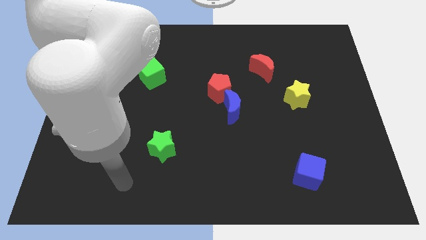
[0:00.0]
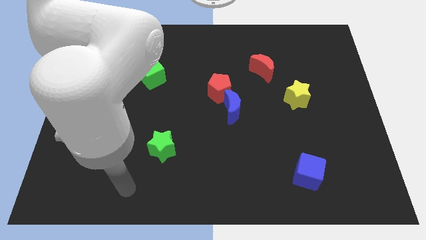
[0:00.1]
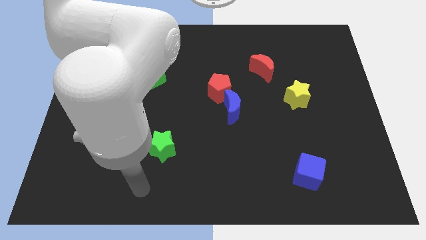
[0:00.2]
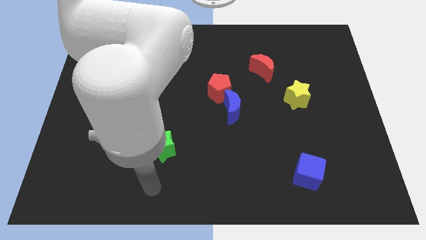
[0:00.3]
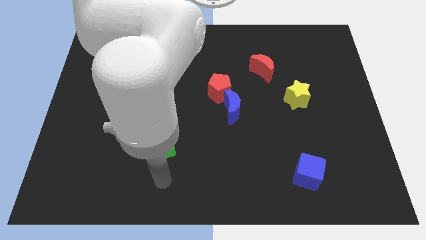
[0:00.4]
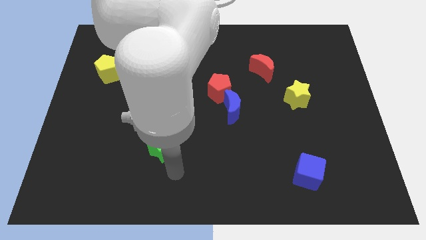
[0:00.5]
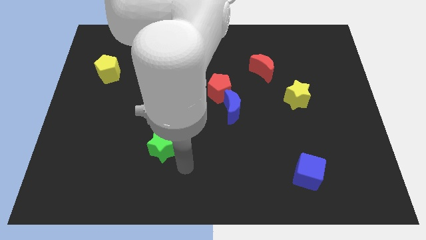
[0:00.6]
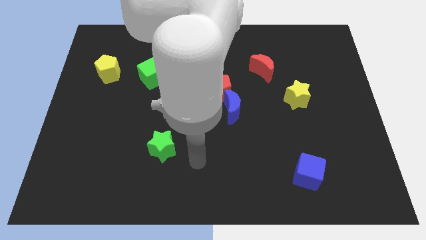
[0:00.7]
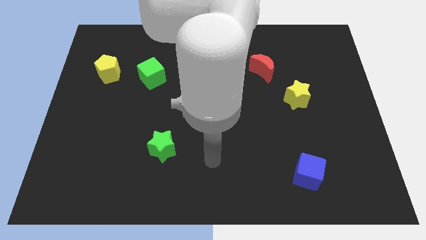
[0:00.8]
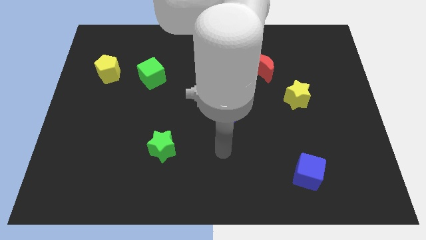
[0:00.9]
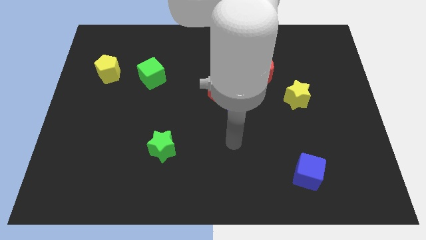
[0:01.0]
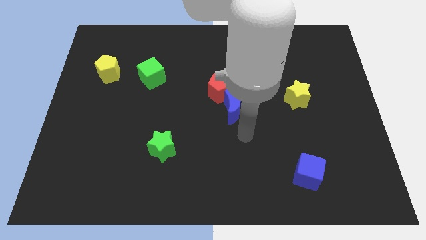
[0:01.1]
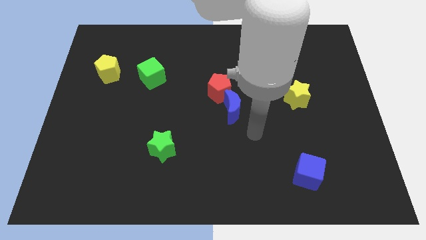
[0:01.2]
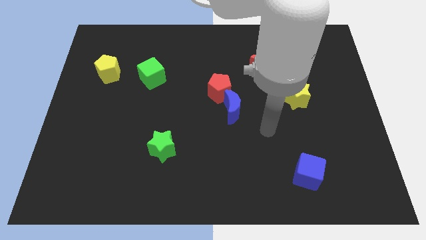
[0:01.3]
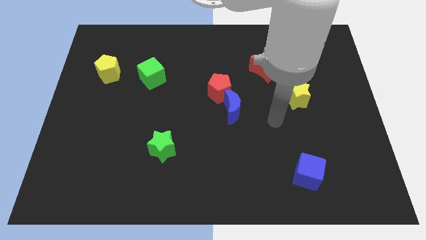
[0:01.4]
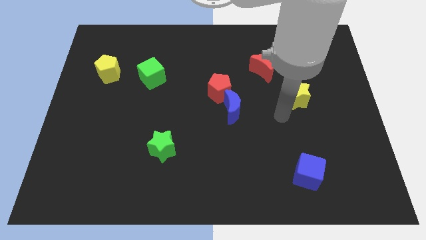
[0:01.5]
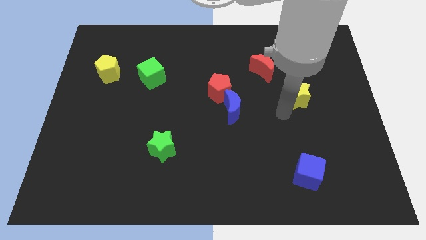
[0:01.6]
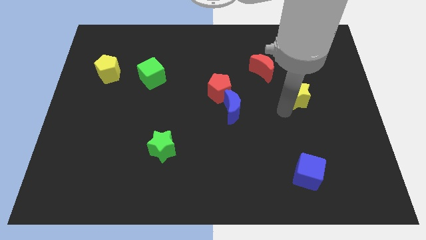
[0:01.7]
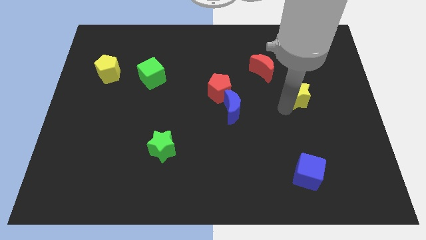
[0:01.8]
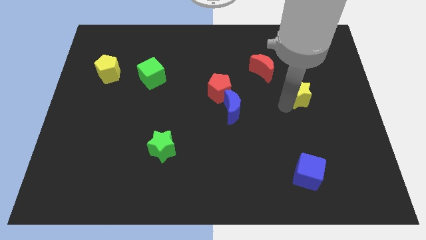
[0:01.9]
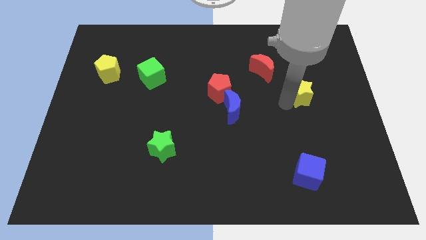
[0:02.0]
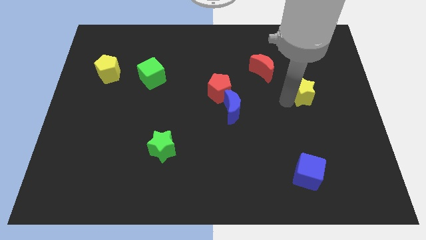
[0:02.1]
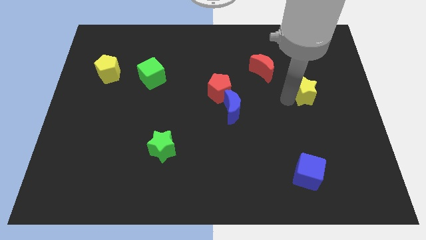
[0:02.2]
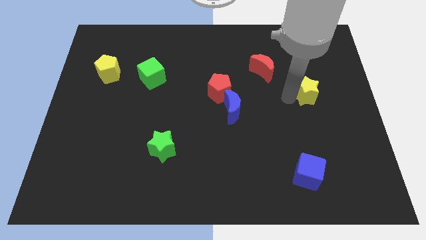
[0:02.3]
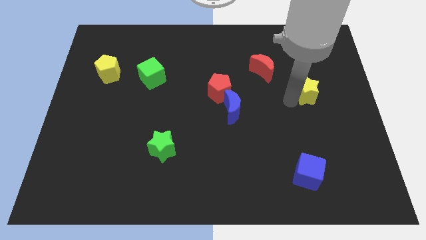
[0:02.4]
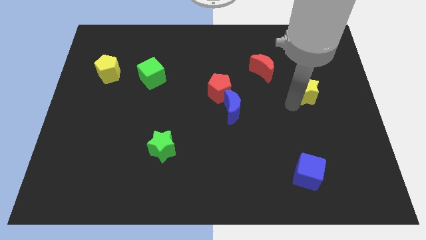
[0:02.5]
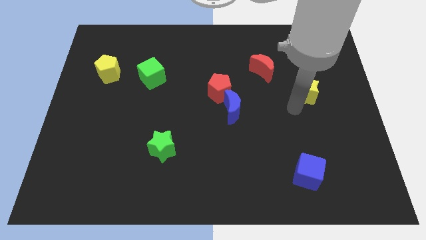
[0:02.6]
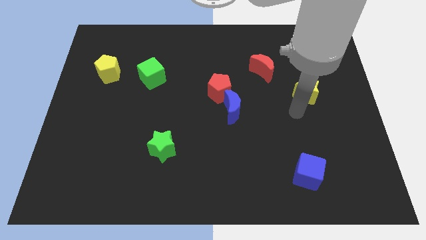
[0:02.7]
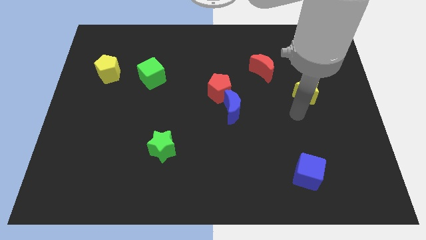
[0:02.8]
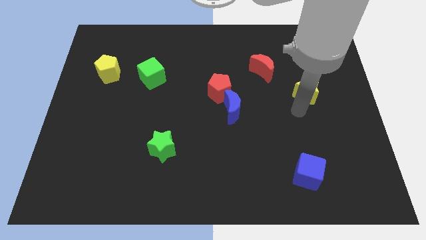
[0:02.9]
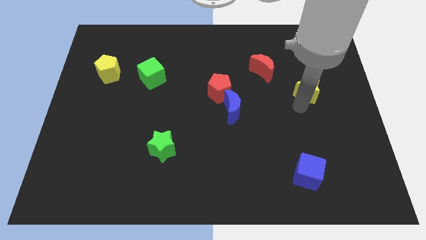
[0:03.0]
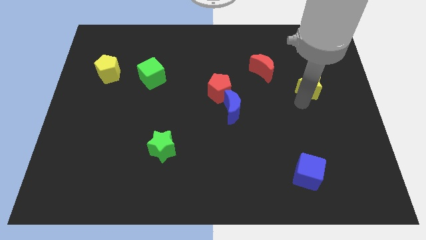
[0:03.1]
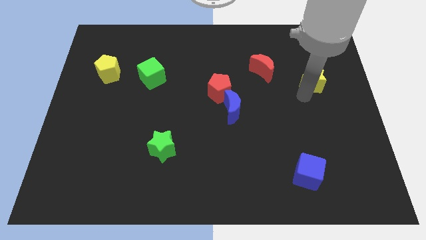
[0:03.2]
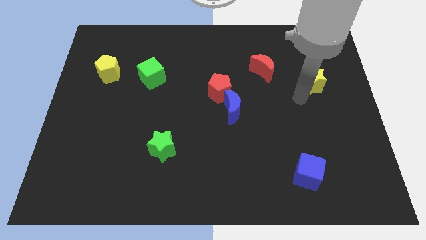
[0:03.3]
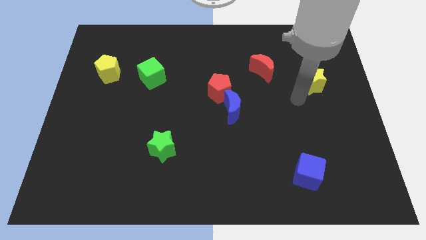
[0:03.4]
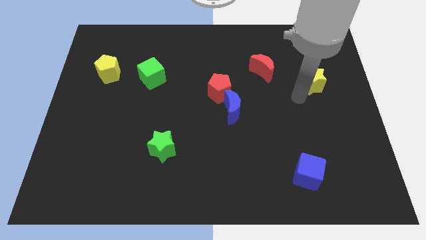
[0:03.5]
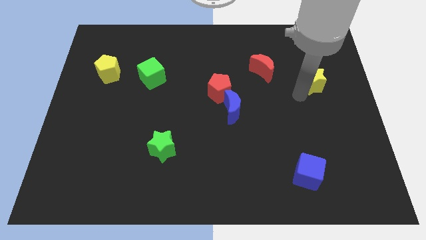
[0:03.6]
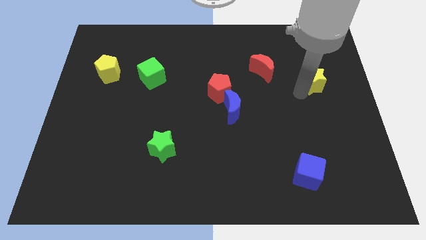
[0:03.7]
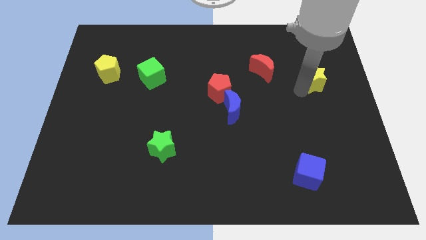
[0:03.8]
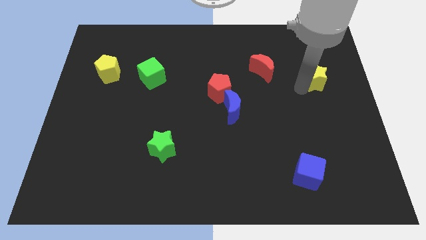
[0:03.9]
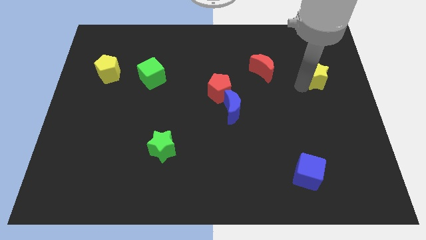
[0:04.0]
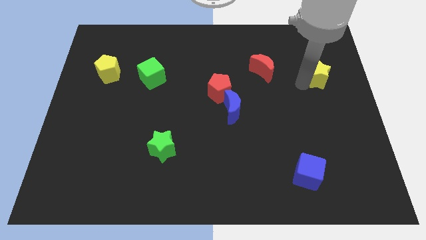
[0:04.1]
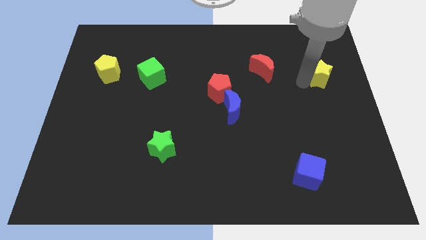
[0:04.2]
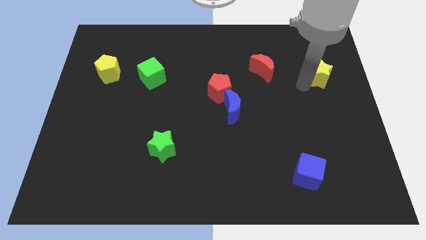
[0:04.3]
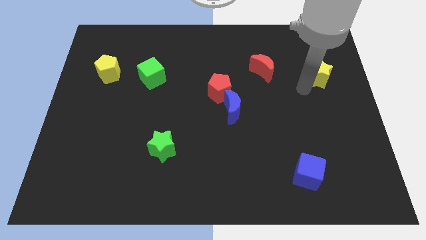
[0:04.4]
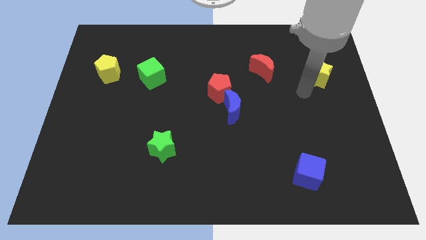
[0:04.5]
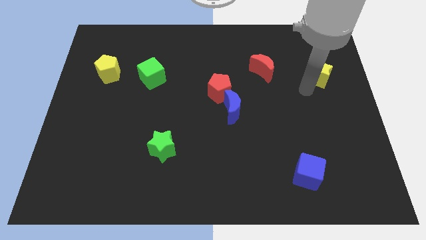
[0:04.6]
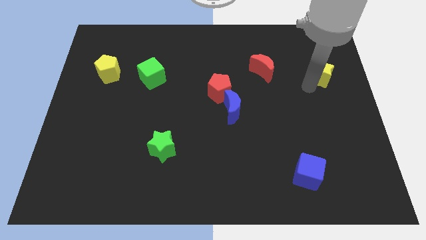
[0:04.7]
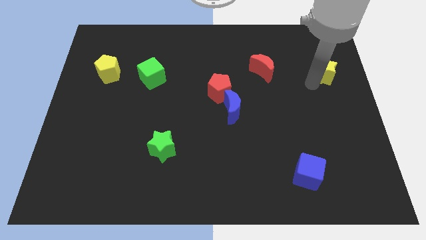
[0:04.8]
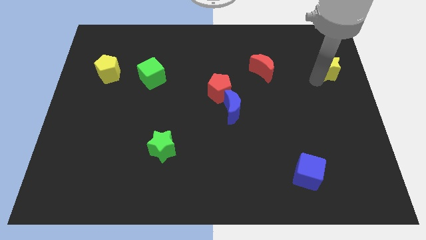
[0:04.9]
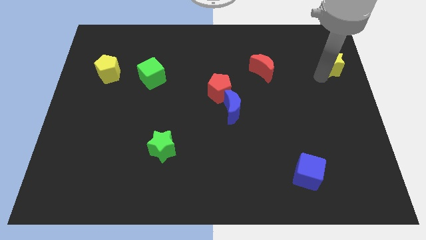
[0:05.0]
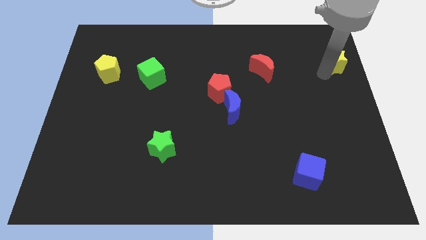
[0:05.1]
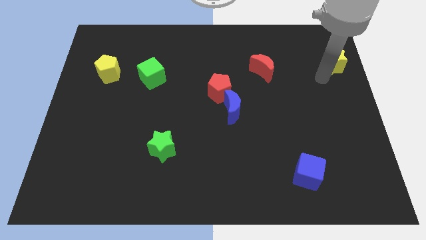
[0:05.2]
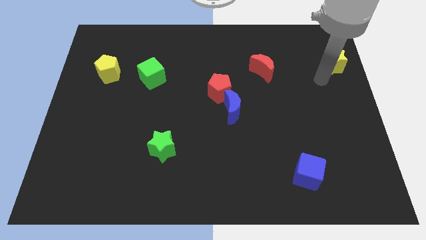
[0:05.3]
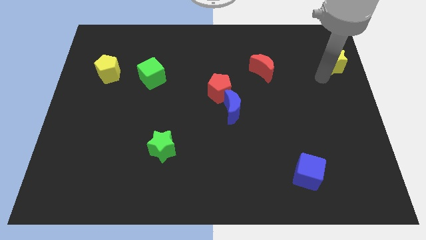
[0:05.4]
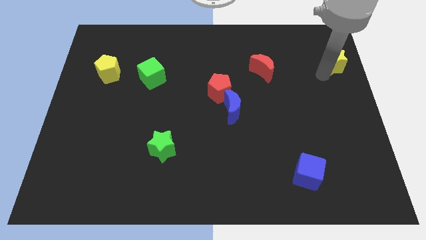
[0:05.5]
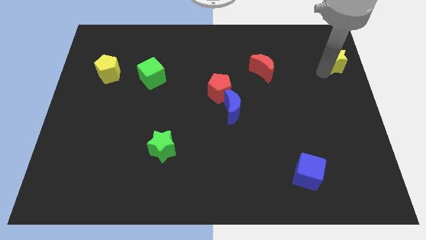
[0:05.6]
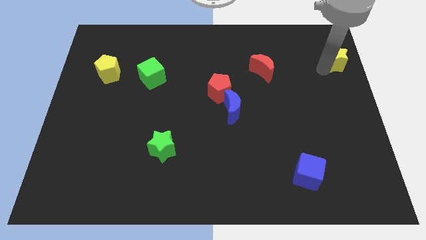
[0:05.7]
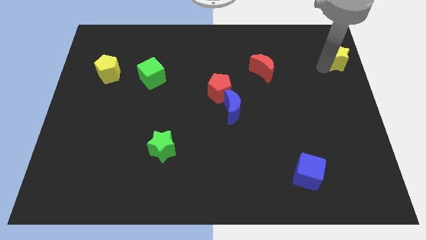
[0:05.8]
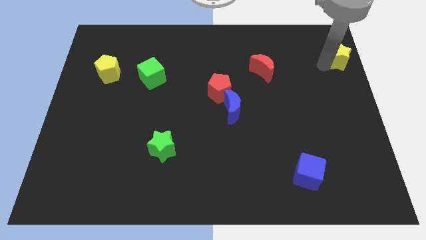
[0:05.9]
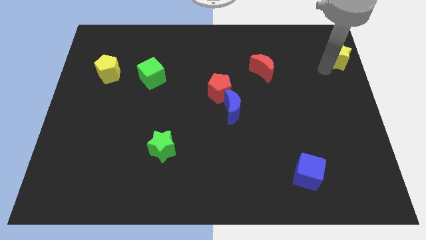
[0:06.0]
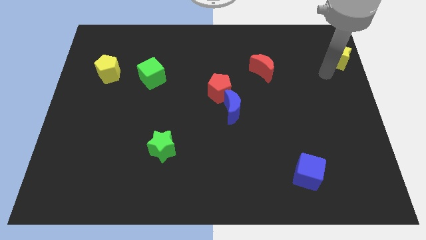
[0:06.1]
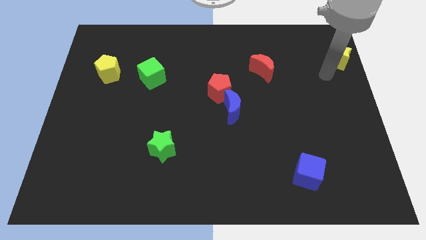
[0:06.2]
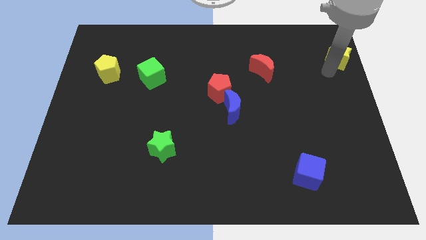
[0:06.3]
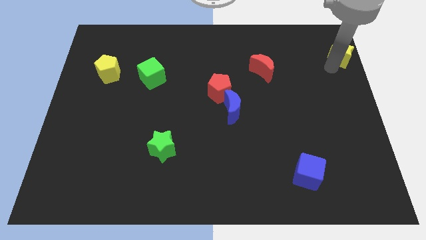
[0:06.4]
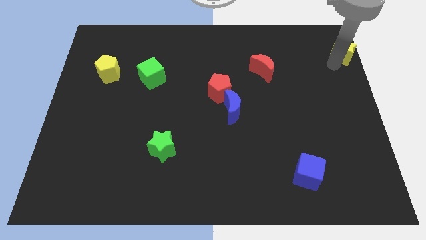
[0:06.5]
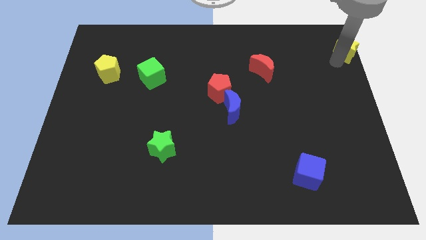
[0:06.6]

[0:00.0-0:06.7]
slide the yellow star to the top right corner
